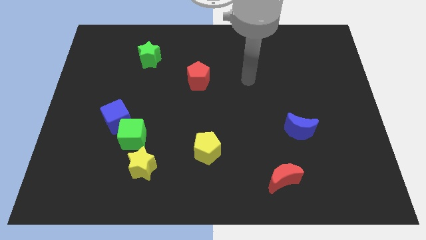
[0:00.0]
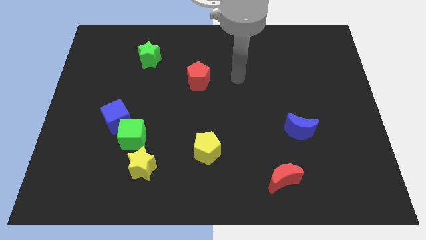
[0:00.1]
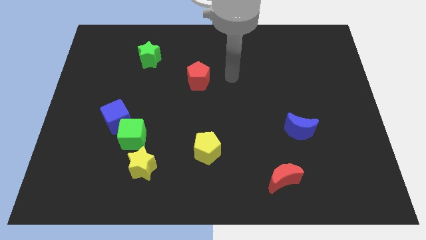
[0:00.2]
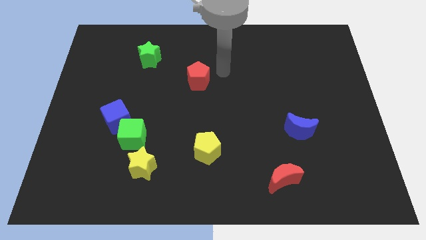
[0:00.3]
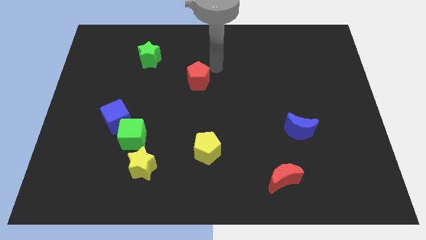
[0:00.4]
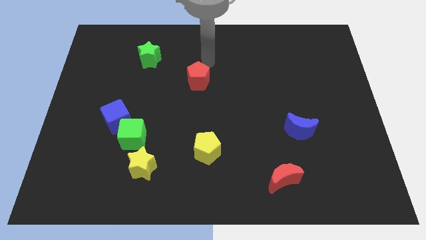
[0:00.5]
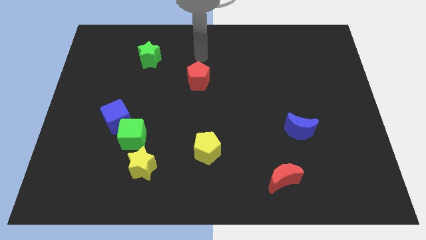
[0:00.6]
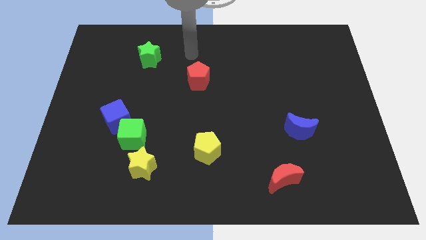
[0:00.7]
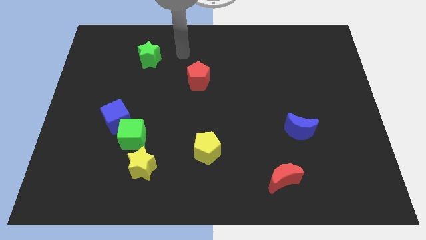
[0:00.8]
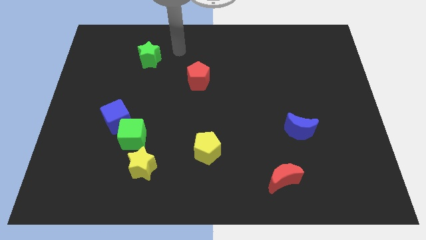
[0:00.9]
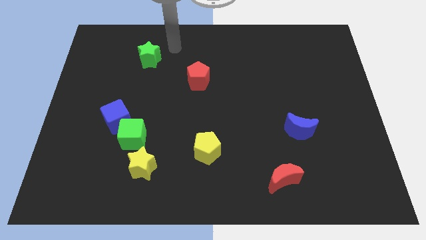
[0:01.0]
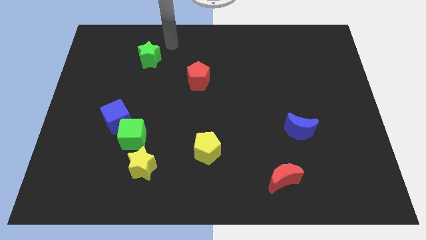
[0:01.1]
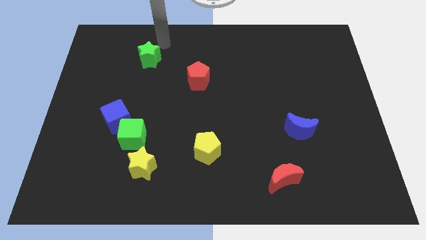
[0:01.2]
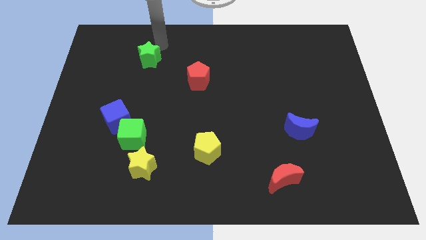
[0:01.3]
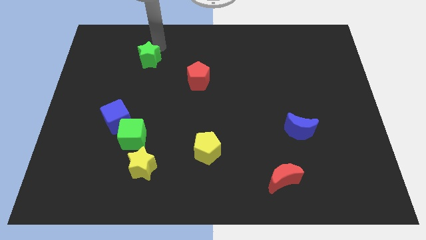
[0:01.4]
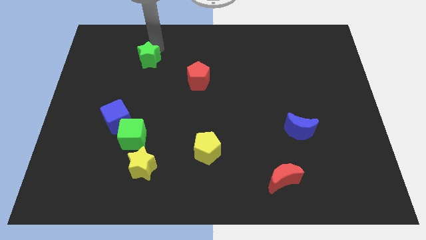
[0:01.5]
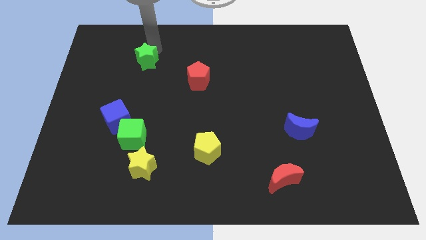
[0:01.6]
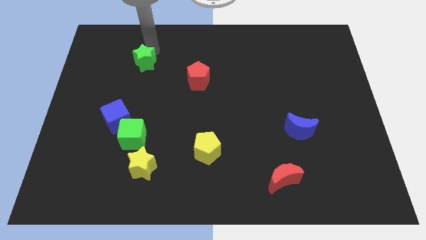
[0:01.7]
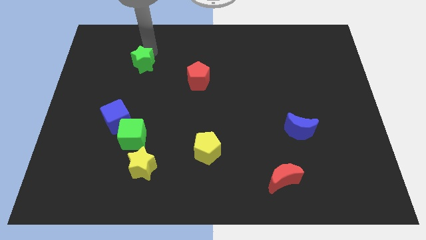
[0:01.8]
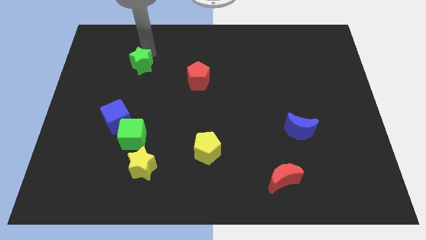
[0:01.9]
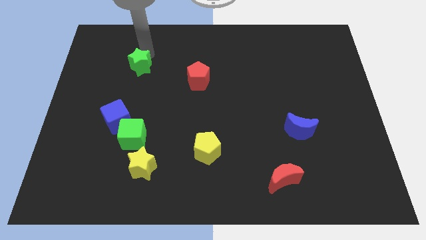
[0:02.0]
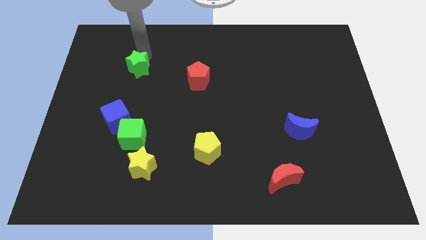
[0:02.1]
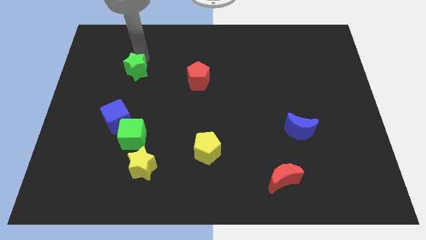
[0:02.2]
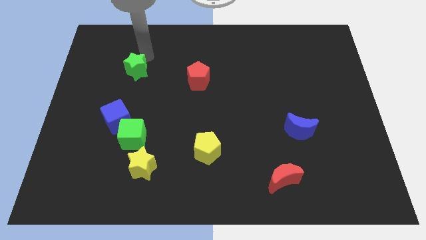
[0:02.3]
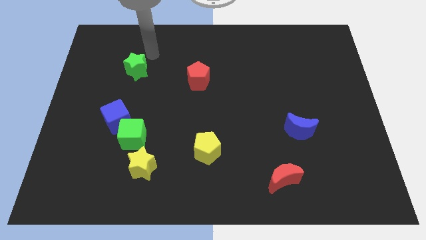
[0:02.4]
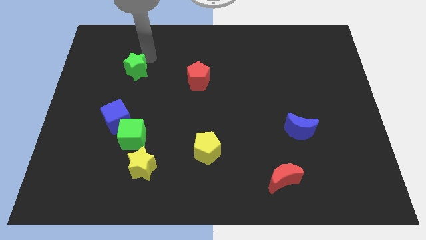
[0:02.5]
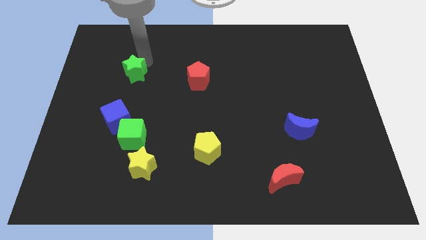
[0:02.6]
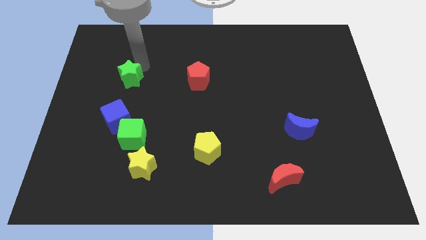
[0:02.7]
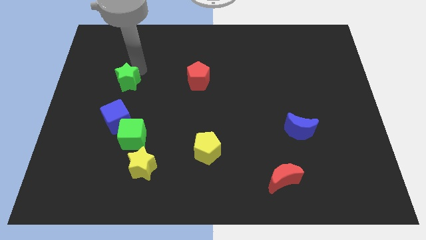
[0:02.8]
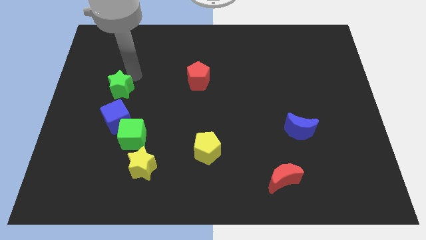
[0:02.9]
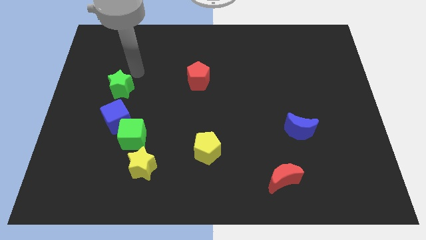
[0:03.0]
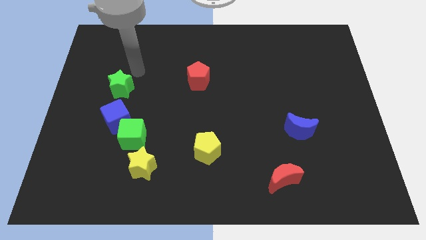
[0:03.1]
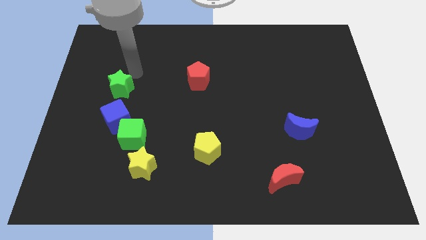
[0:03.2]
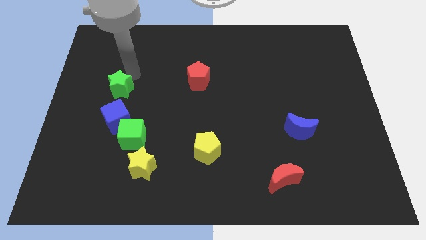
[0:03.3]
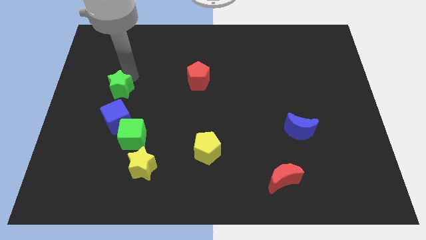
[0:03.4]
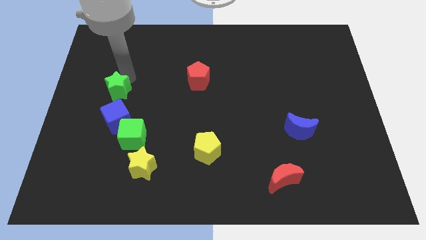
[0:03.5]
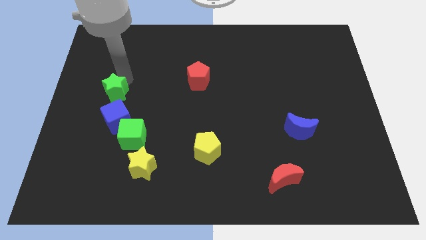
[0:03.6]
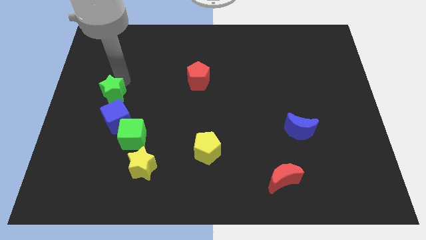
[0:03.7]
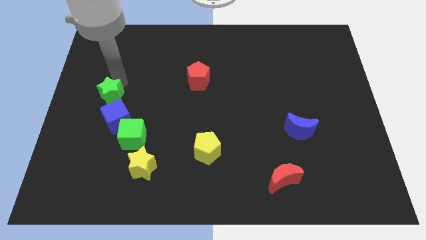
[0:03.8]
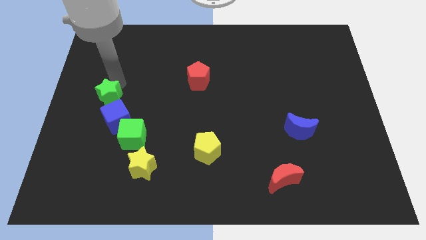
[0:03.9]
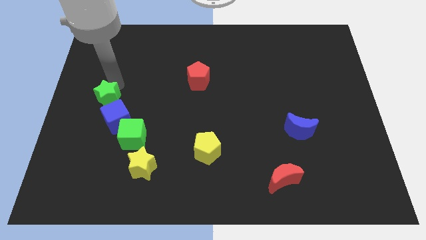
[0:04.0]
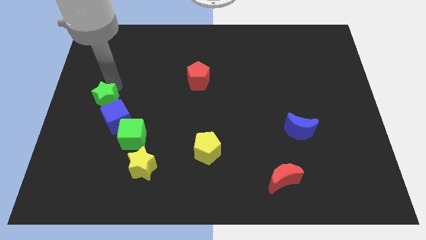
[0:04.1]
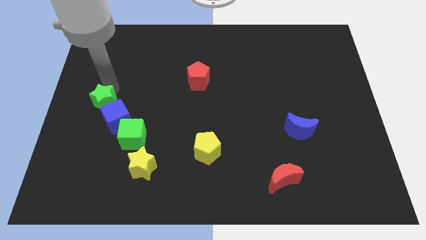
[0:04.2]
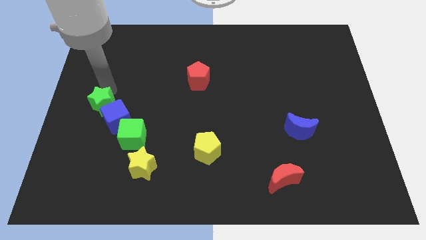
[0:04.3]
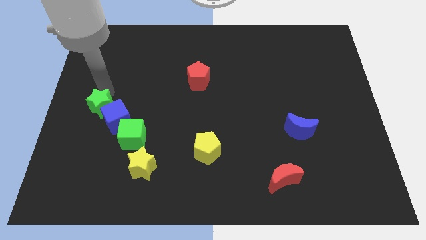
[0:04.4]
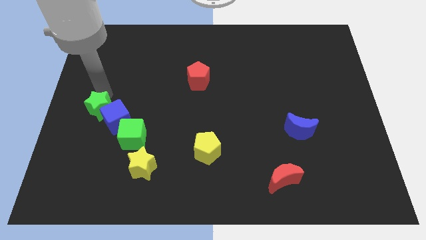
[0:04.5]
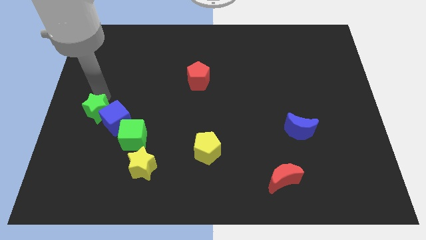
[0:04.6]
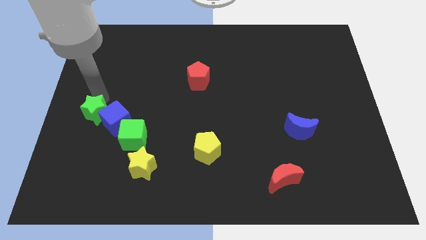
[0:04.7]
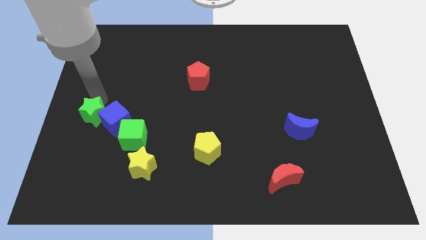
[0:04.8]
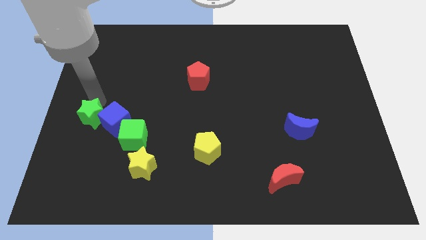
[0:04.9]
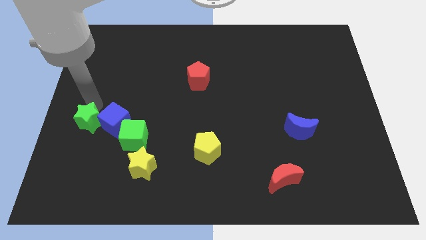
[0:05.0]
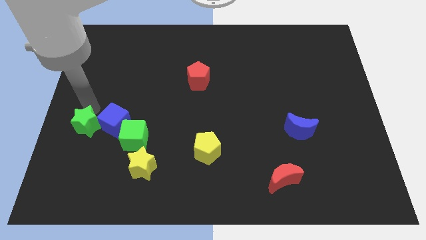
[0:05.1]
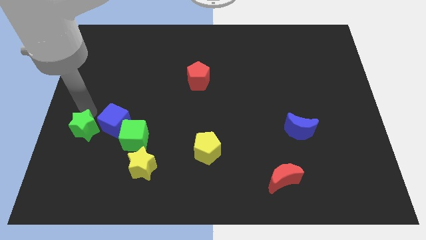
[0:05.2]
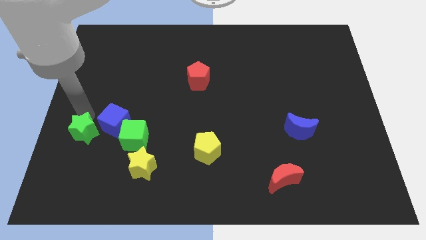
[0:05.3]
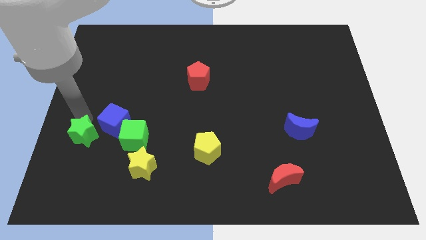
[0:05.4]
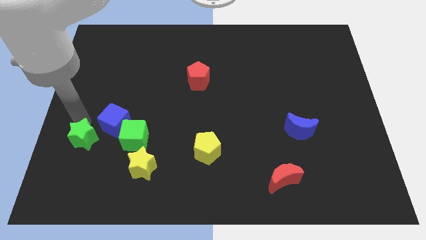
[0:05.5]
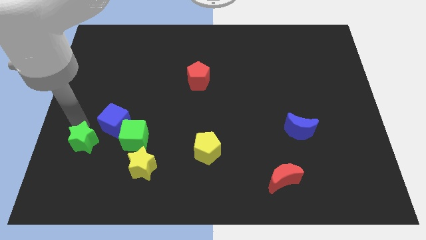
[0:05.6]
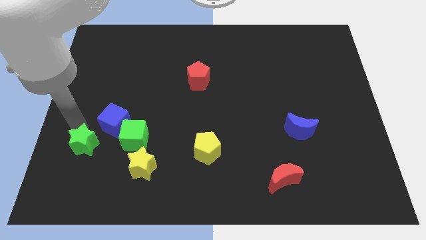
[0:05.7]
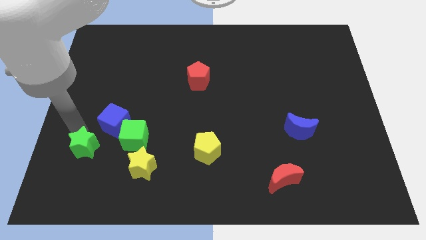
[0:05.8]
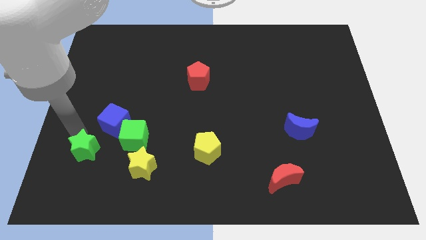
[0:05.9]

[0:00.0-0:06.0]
move the green star just left of the yellow star
